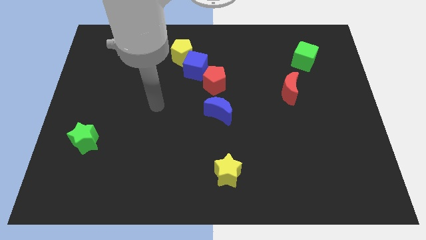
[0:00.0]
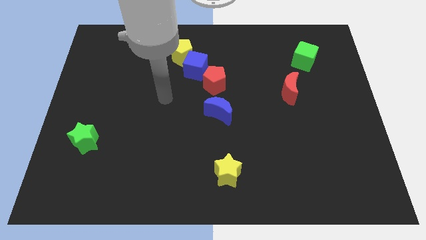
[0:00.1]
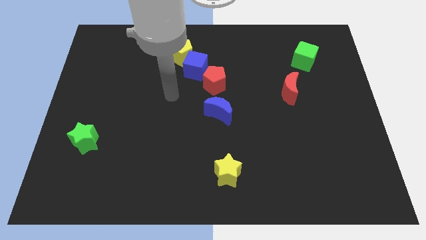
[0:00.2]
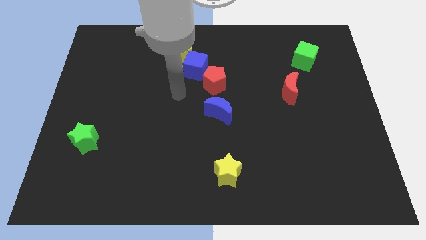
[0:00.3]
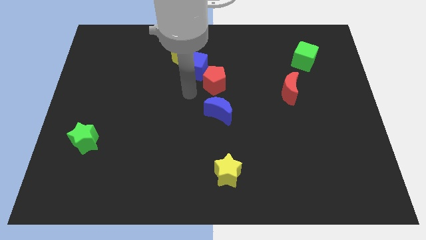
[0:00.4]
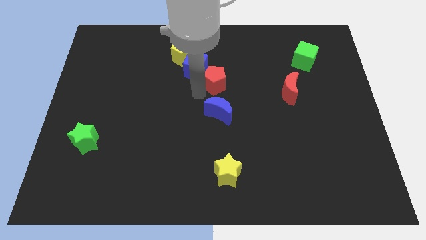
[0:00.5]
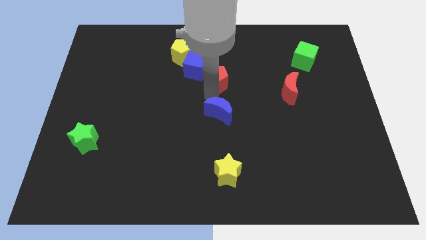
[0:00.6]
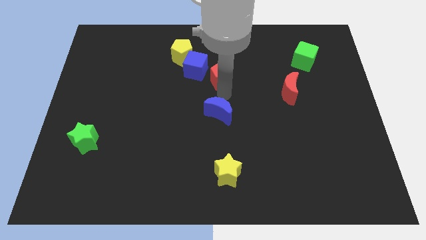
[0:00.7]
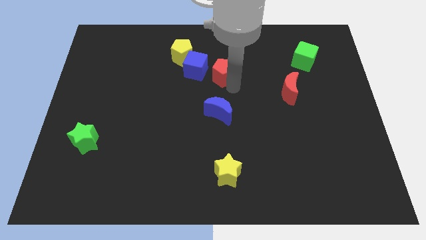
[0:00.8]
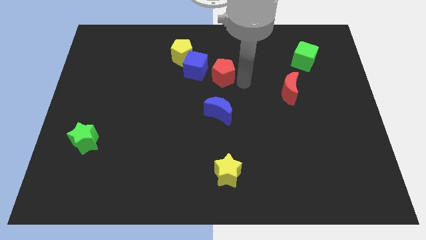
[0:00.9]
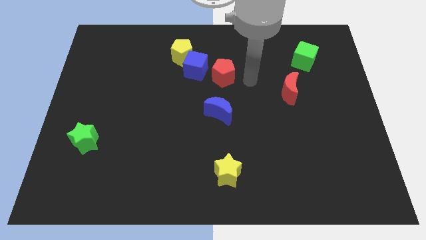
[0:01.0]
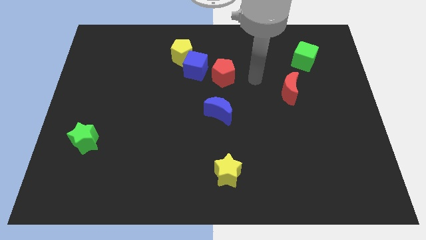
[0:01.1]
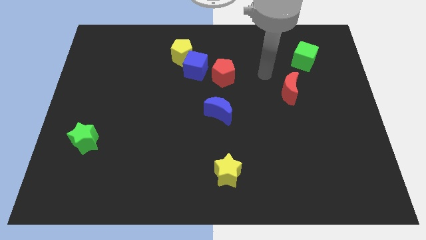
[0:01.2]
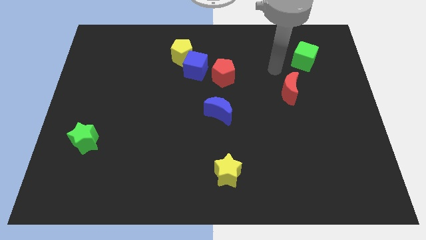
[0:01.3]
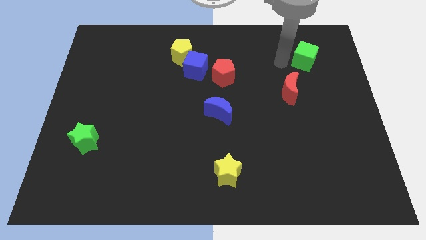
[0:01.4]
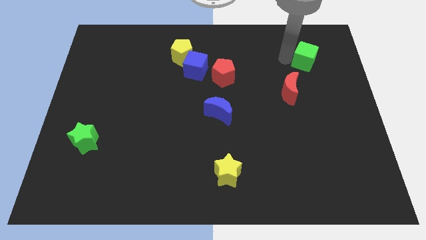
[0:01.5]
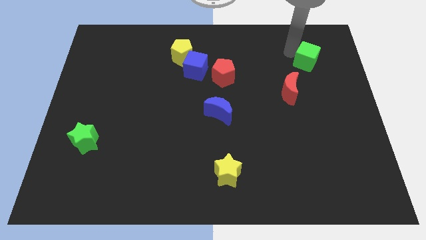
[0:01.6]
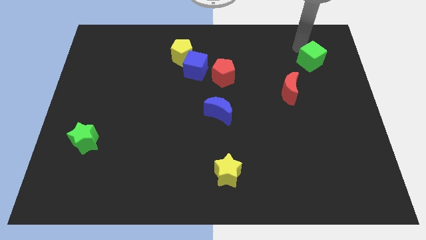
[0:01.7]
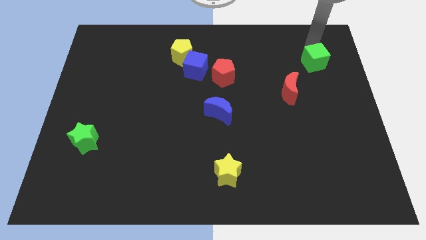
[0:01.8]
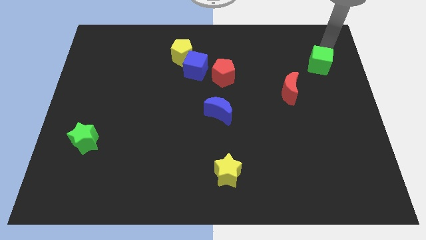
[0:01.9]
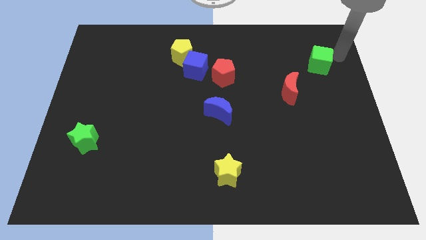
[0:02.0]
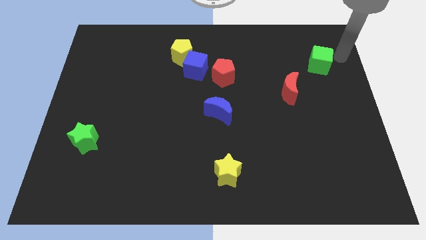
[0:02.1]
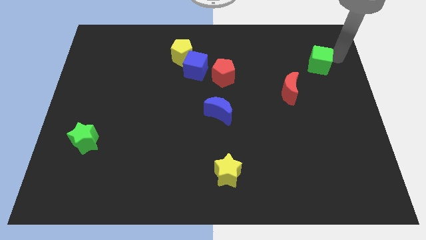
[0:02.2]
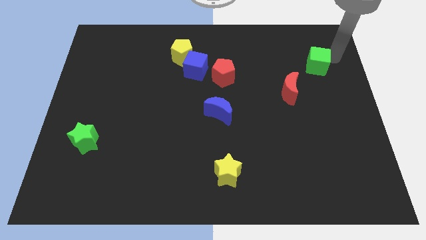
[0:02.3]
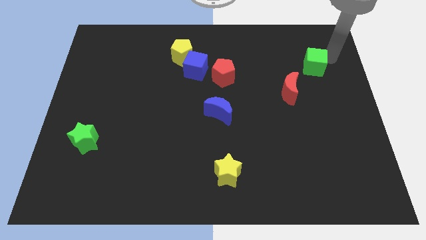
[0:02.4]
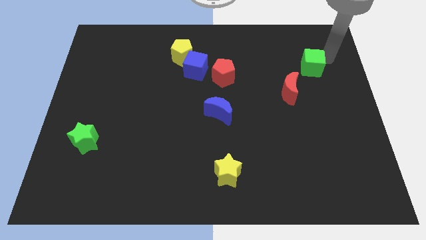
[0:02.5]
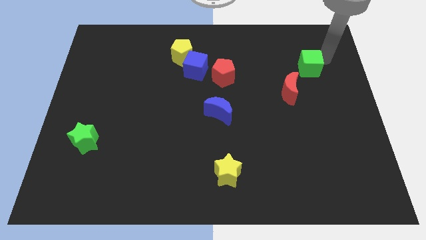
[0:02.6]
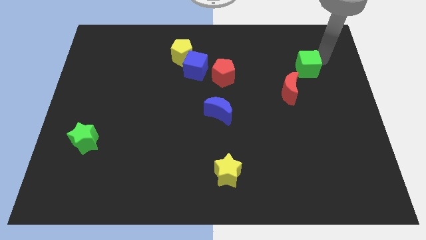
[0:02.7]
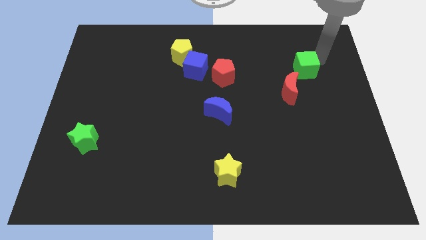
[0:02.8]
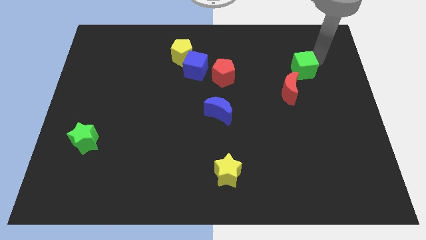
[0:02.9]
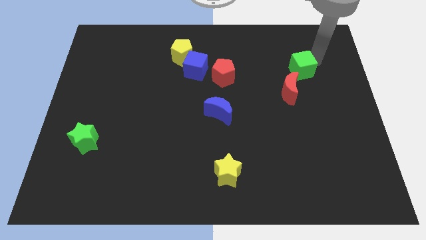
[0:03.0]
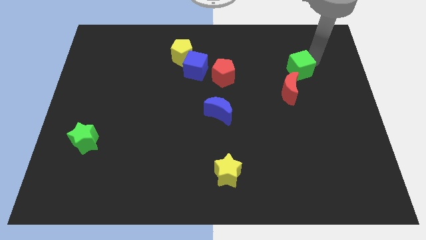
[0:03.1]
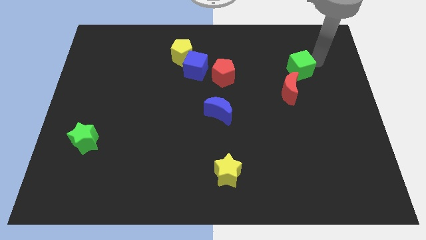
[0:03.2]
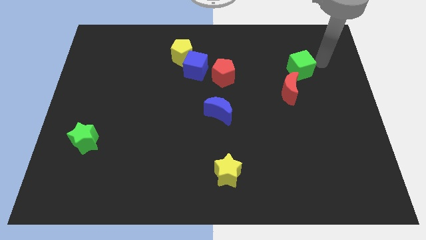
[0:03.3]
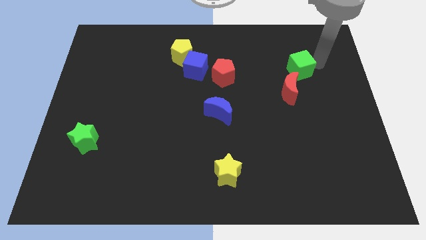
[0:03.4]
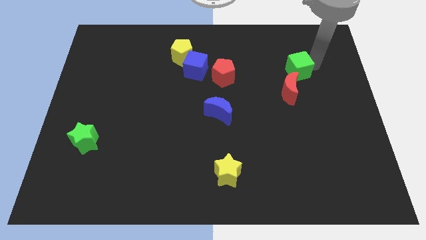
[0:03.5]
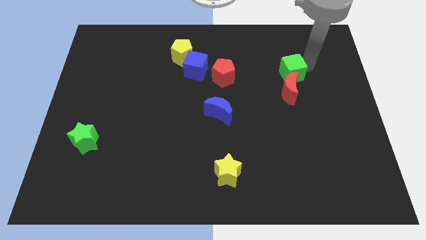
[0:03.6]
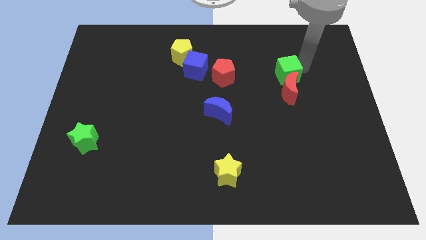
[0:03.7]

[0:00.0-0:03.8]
push the green cube a little diagonally downwards and to the left

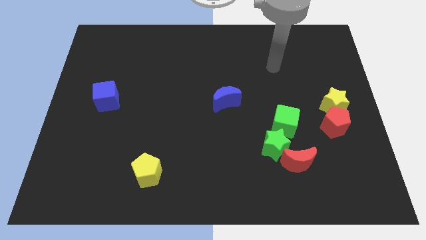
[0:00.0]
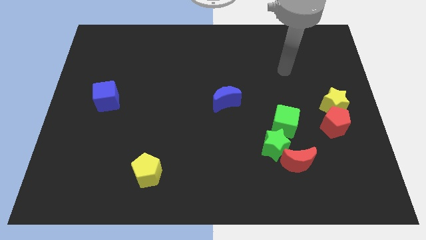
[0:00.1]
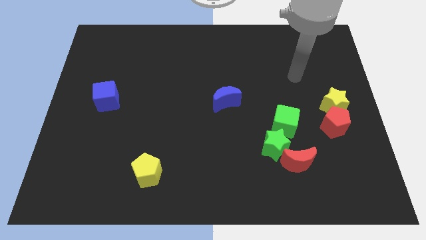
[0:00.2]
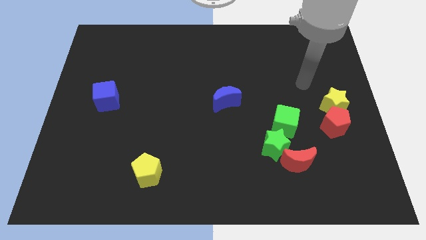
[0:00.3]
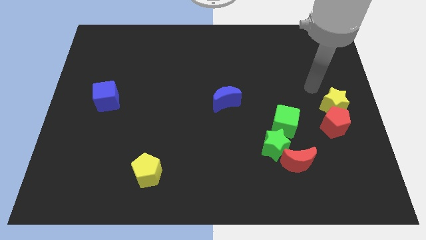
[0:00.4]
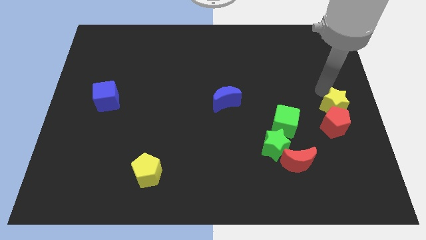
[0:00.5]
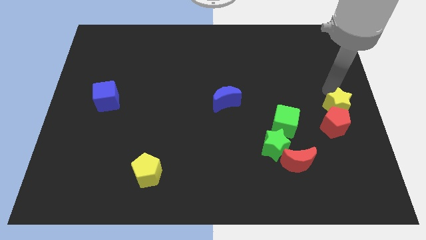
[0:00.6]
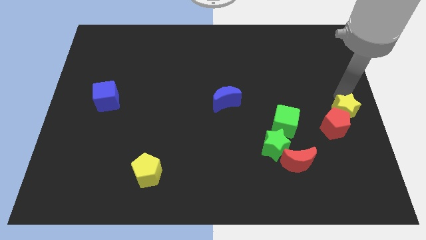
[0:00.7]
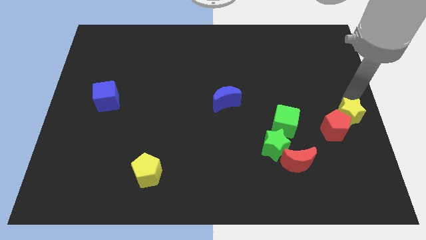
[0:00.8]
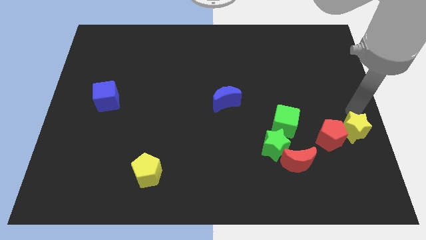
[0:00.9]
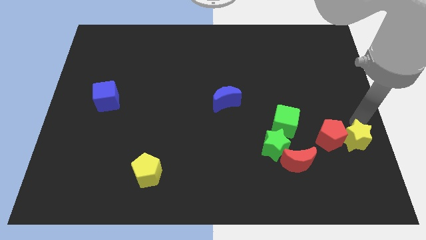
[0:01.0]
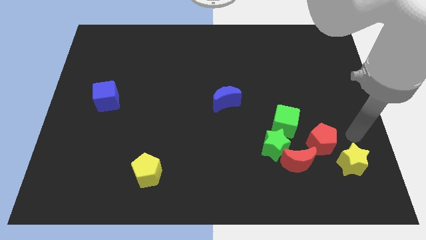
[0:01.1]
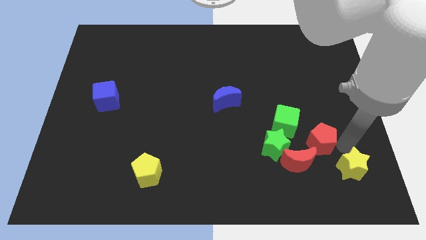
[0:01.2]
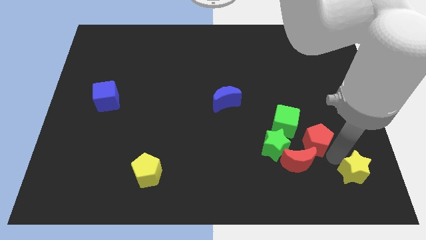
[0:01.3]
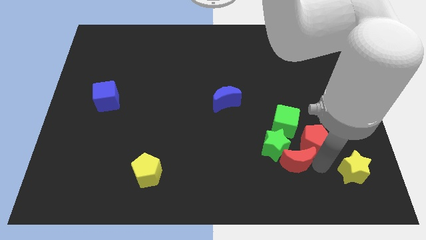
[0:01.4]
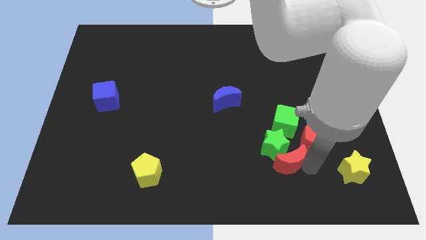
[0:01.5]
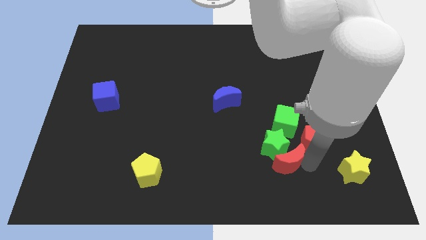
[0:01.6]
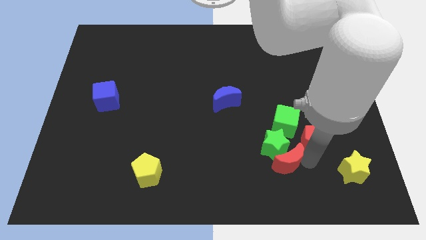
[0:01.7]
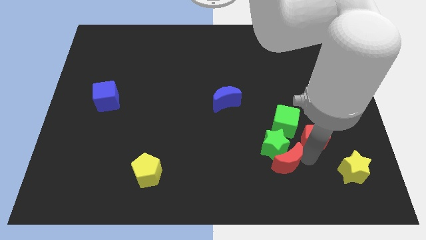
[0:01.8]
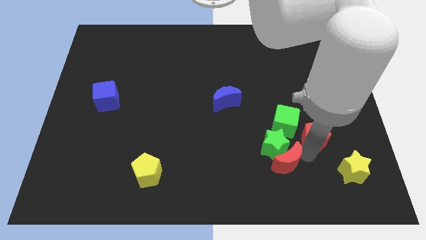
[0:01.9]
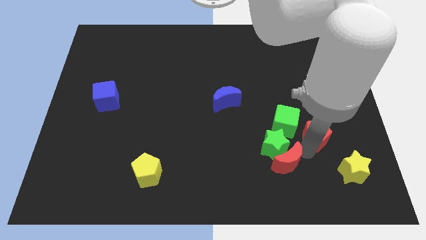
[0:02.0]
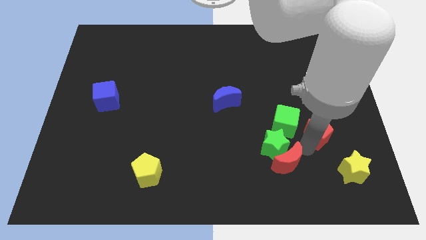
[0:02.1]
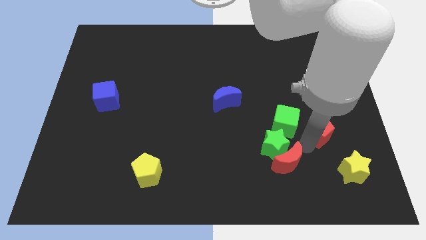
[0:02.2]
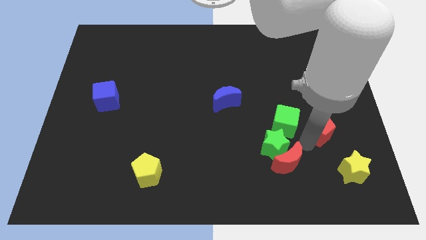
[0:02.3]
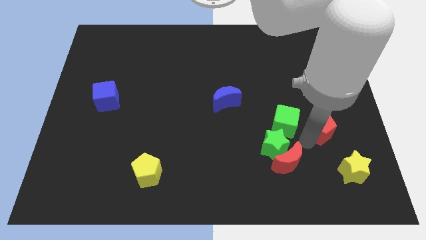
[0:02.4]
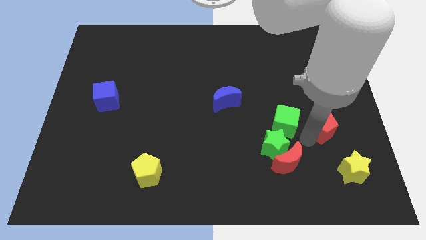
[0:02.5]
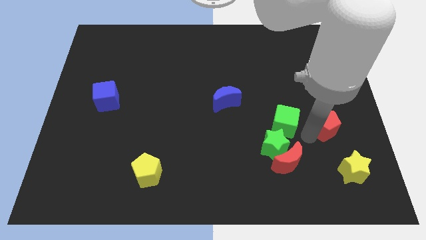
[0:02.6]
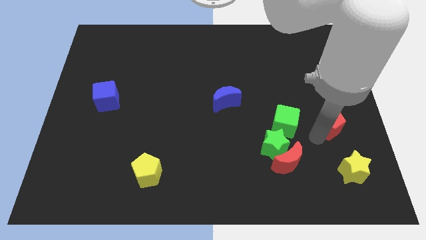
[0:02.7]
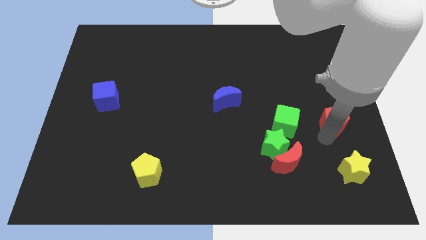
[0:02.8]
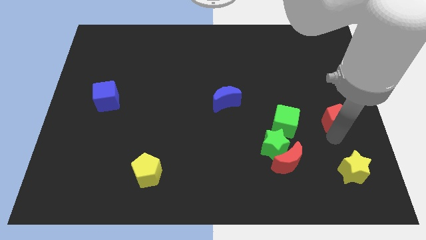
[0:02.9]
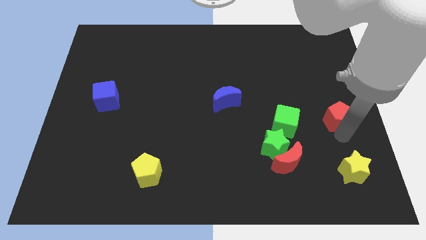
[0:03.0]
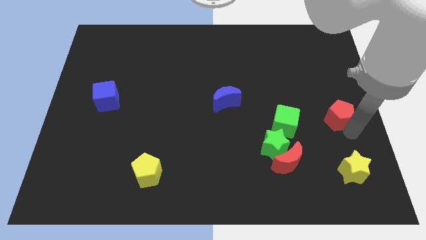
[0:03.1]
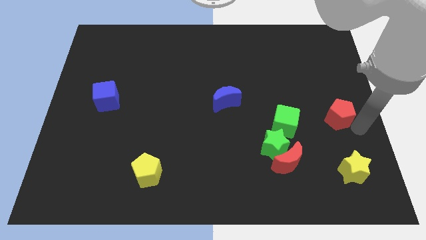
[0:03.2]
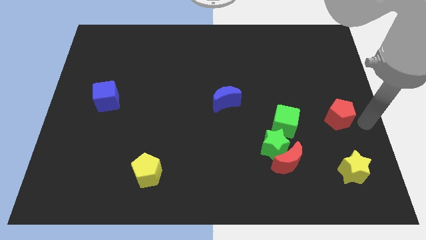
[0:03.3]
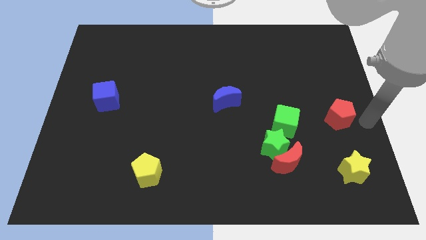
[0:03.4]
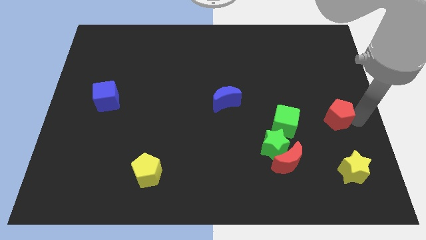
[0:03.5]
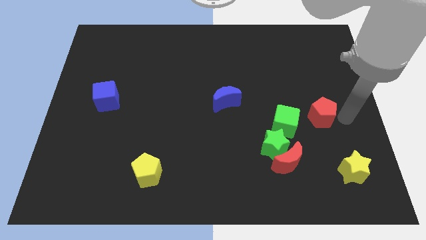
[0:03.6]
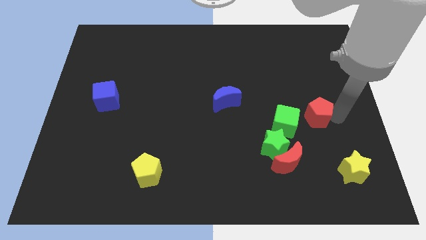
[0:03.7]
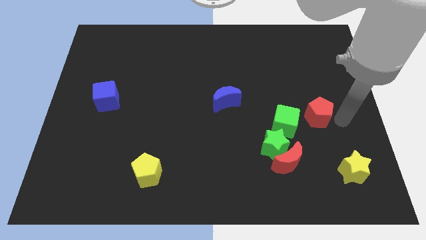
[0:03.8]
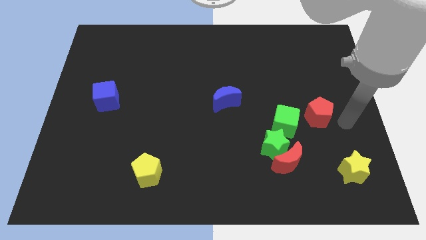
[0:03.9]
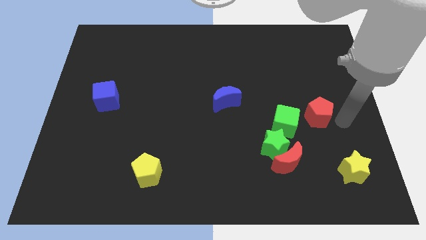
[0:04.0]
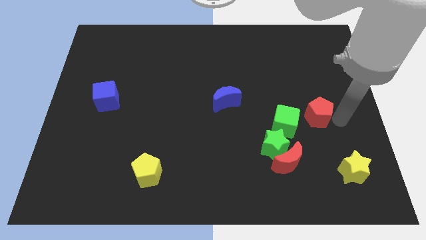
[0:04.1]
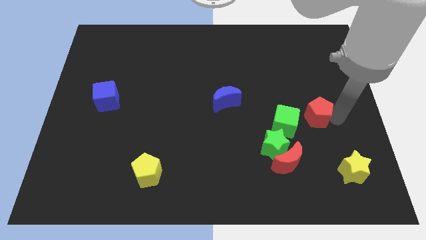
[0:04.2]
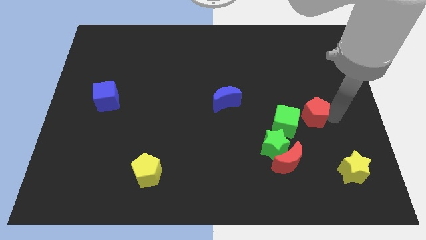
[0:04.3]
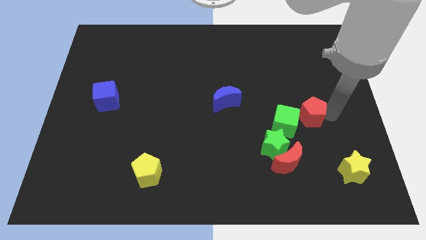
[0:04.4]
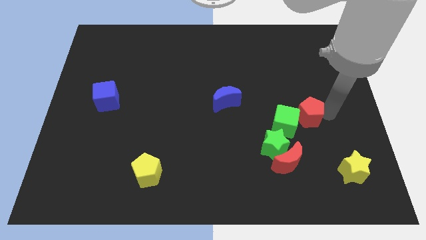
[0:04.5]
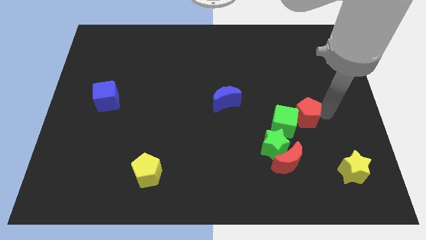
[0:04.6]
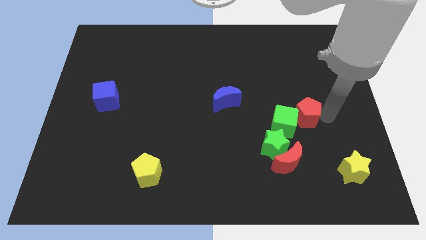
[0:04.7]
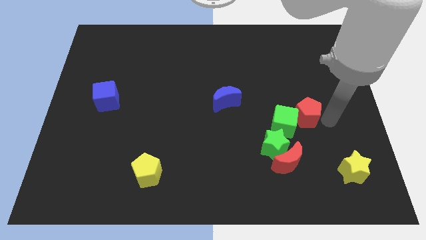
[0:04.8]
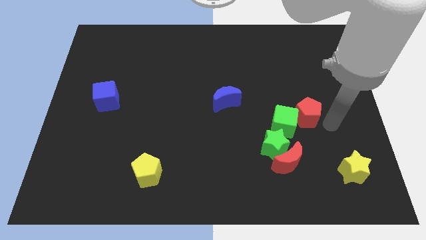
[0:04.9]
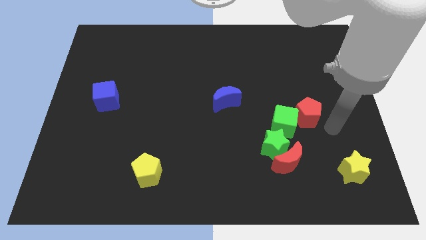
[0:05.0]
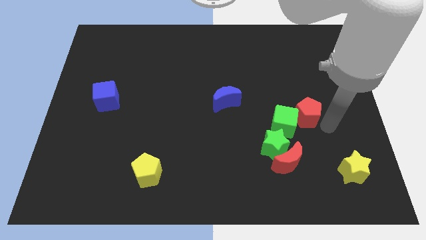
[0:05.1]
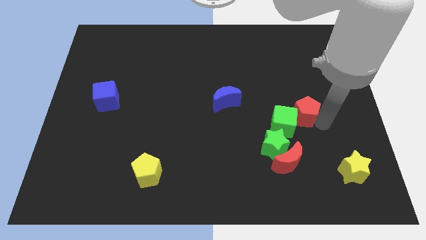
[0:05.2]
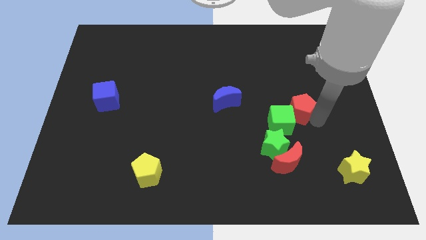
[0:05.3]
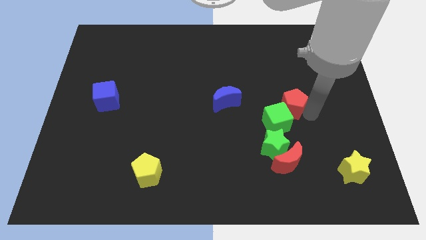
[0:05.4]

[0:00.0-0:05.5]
move the red pentagon left slightly
